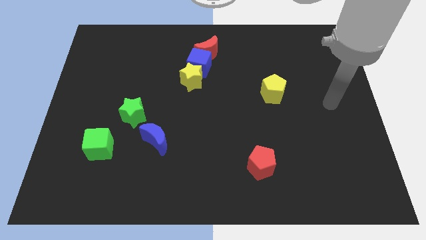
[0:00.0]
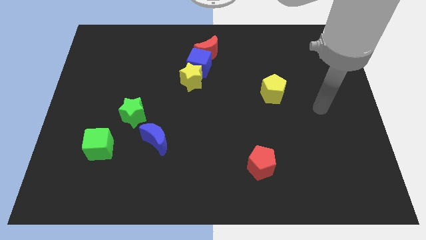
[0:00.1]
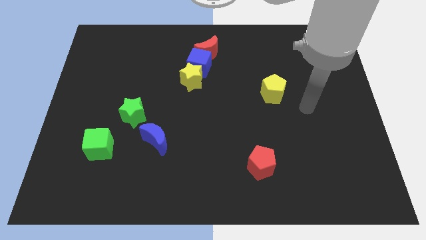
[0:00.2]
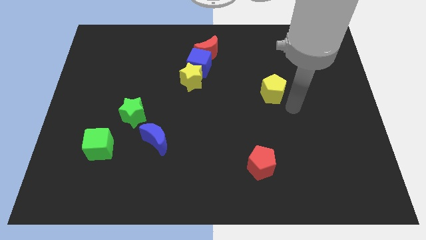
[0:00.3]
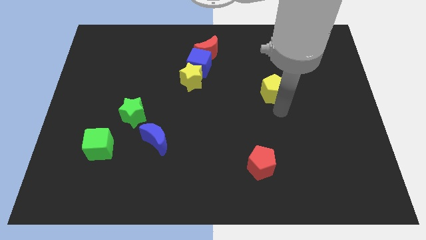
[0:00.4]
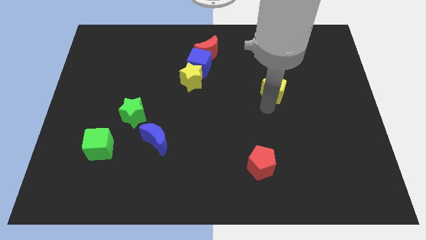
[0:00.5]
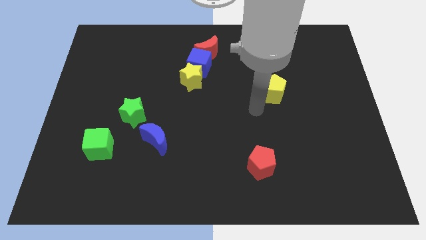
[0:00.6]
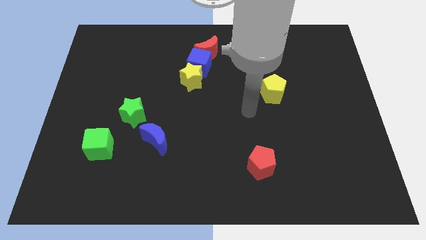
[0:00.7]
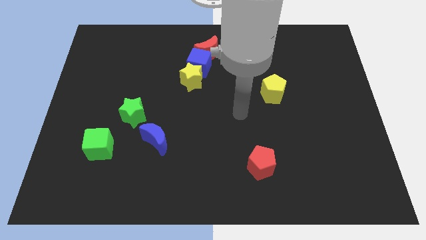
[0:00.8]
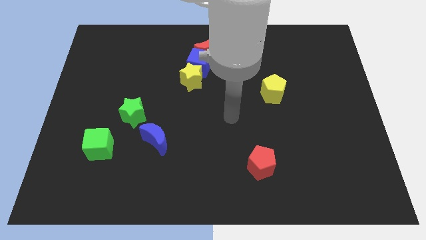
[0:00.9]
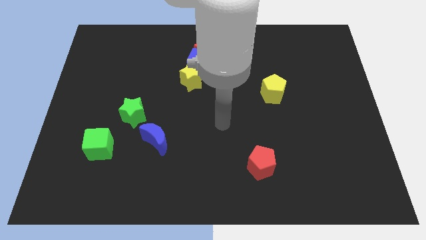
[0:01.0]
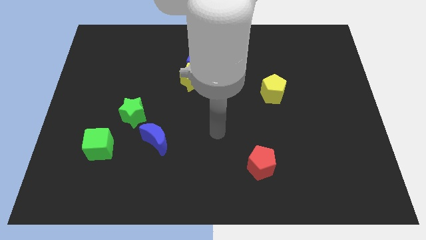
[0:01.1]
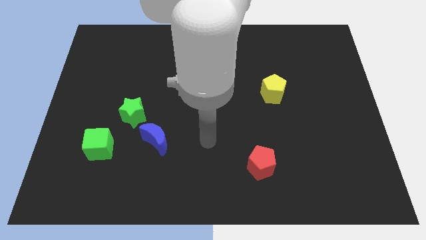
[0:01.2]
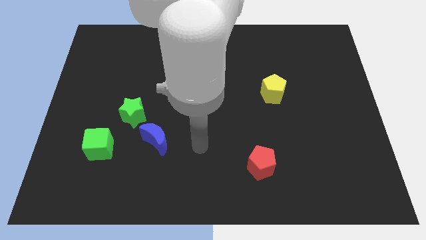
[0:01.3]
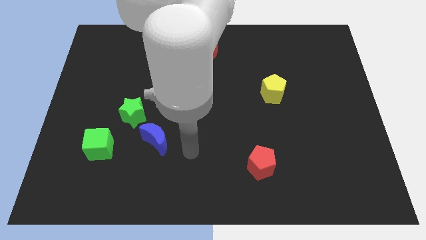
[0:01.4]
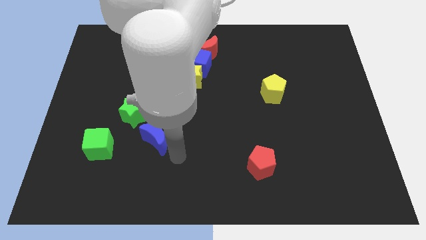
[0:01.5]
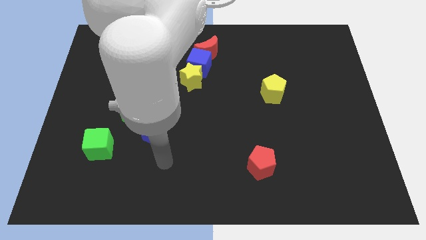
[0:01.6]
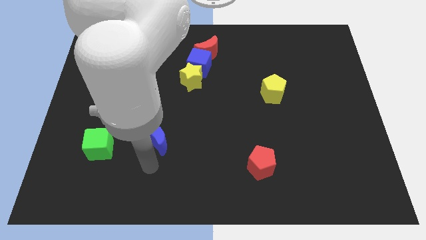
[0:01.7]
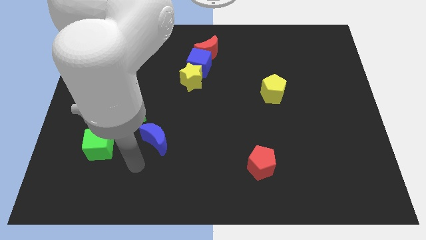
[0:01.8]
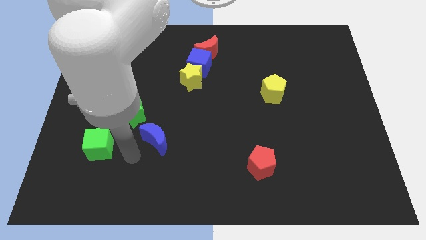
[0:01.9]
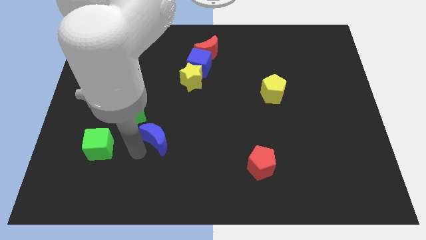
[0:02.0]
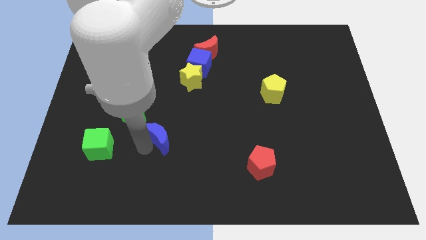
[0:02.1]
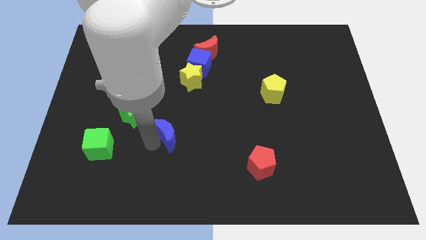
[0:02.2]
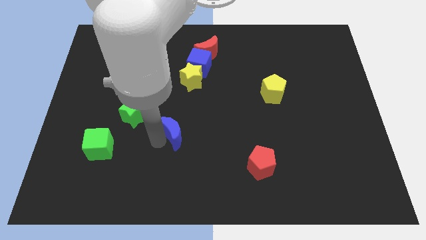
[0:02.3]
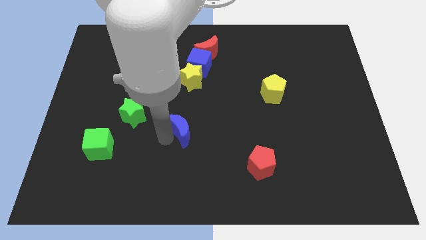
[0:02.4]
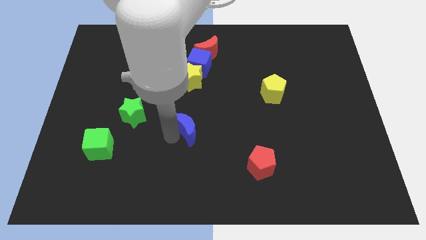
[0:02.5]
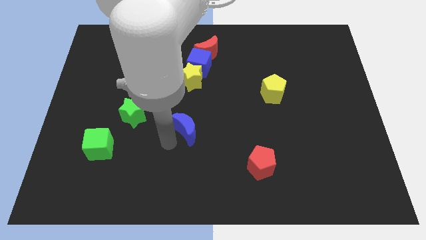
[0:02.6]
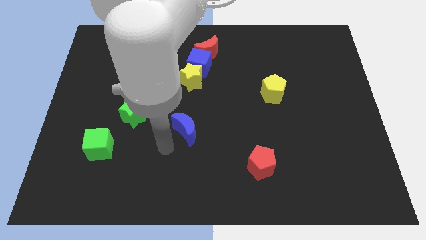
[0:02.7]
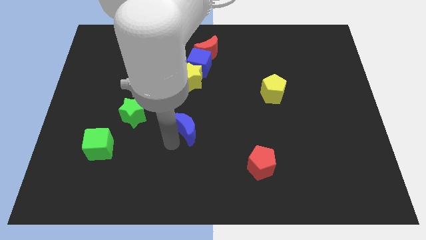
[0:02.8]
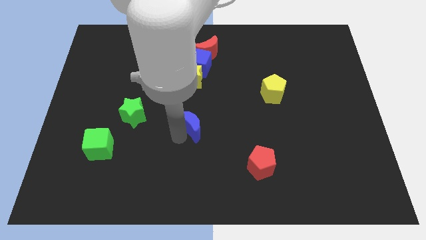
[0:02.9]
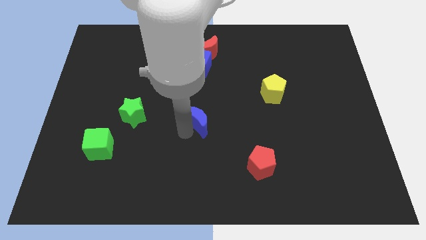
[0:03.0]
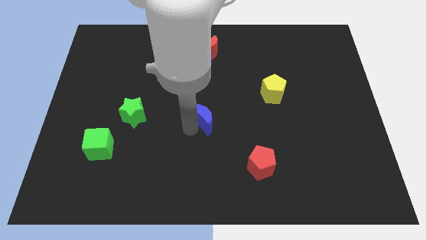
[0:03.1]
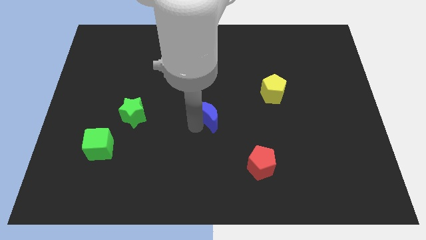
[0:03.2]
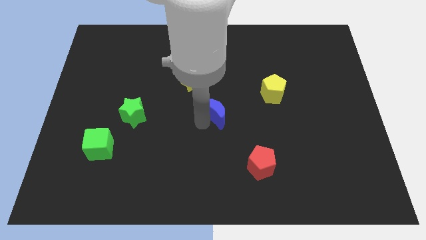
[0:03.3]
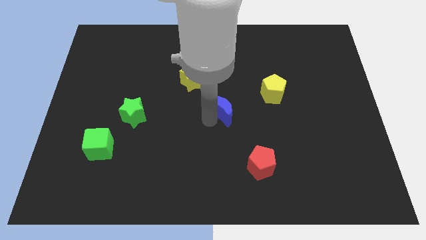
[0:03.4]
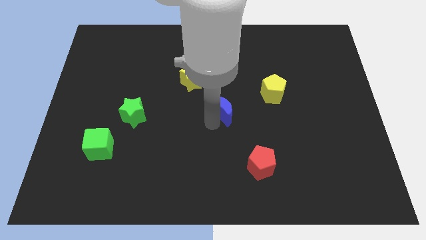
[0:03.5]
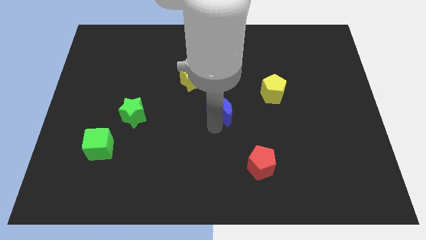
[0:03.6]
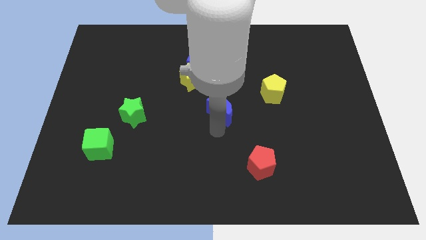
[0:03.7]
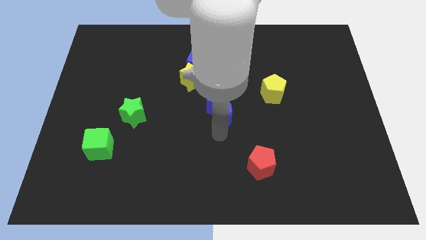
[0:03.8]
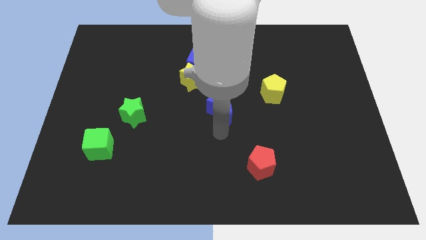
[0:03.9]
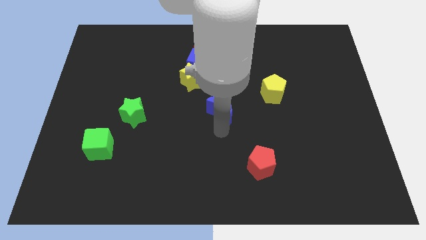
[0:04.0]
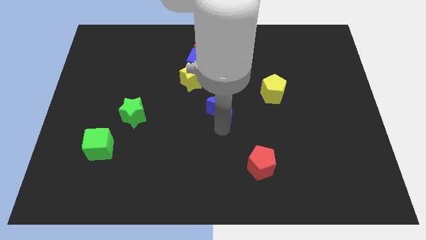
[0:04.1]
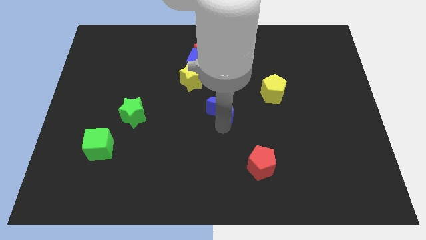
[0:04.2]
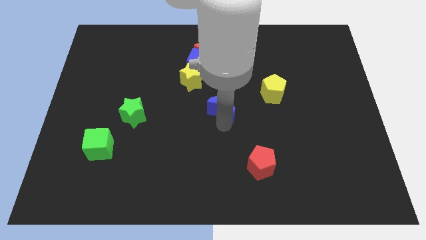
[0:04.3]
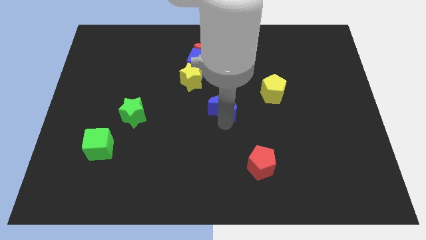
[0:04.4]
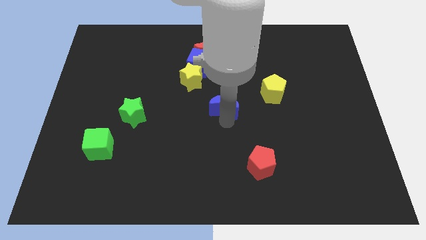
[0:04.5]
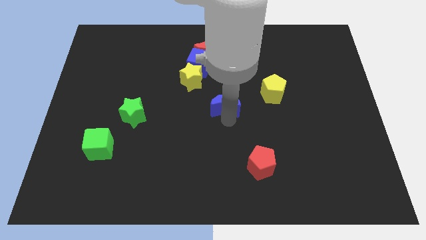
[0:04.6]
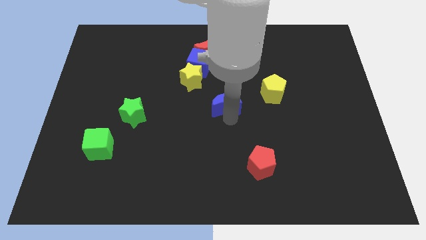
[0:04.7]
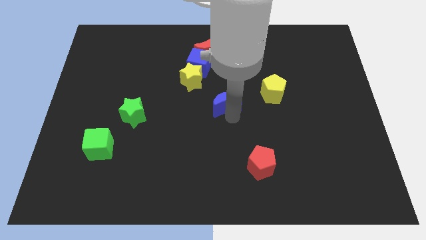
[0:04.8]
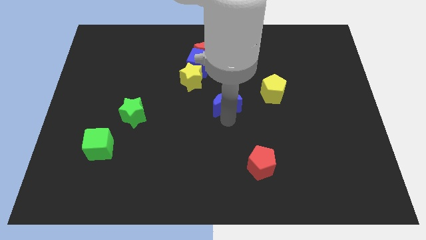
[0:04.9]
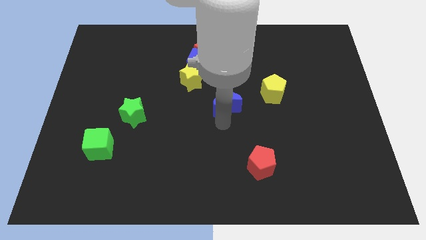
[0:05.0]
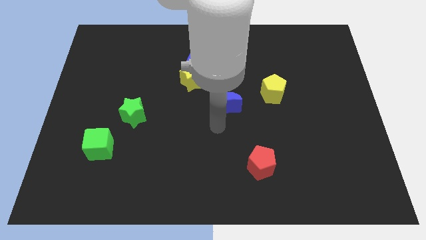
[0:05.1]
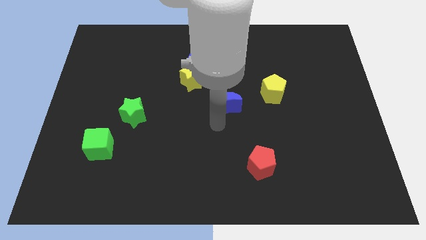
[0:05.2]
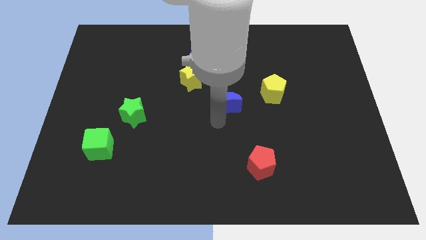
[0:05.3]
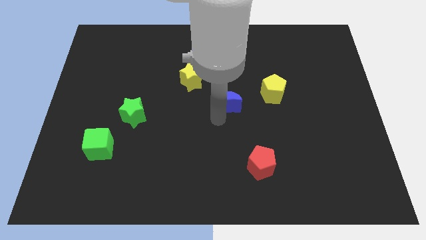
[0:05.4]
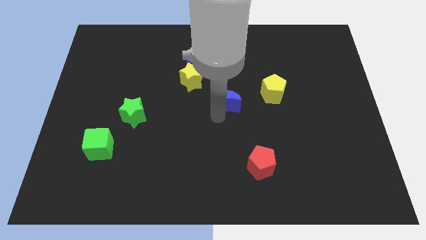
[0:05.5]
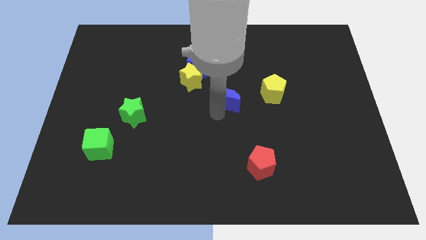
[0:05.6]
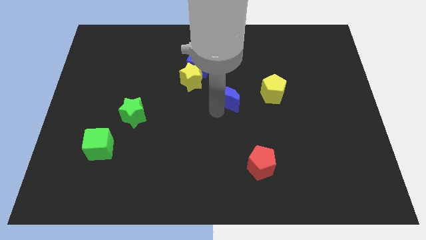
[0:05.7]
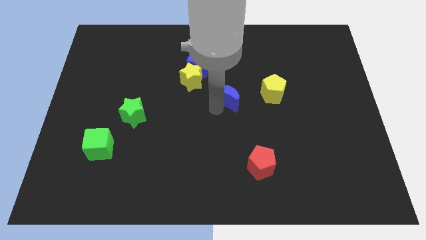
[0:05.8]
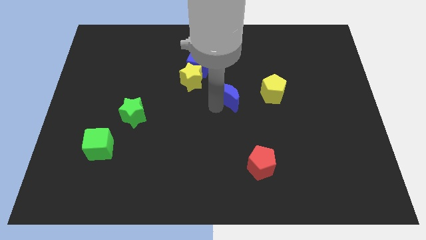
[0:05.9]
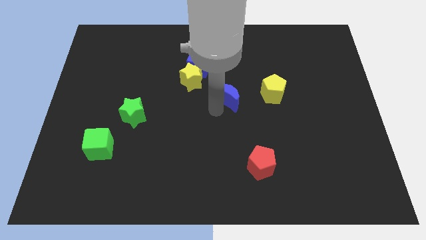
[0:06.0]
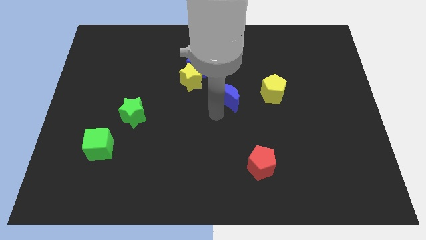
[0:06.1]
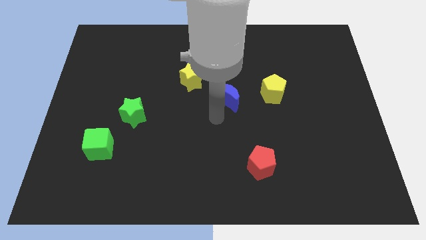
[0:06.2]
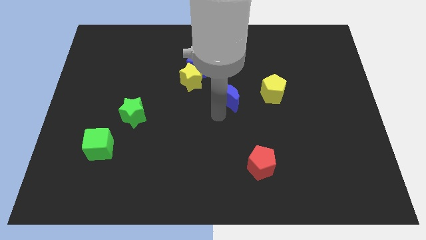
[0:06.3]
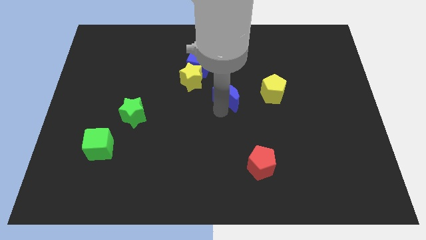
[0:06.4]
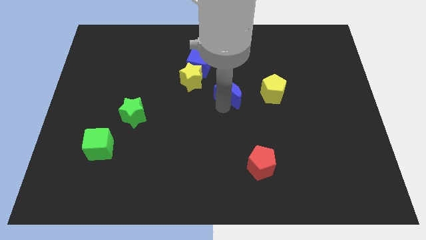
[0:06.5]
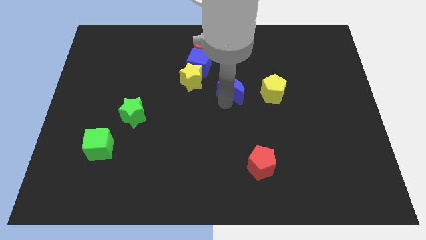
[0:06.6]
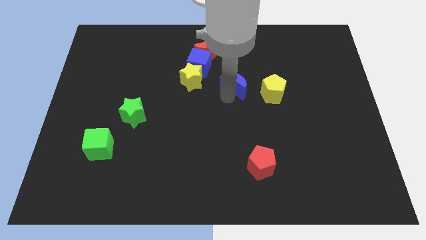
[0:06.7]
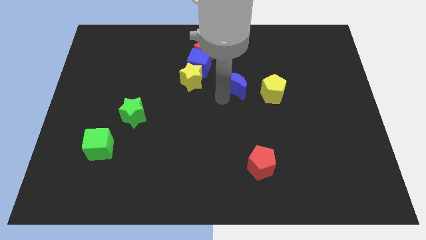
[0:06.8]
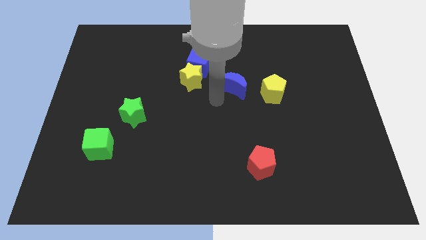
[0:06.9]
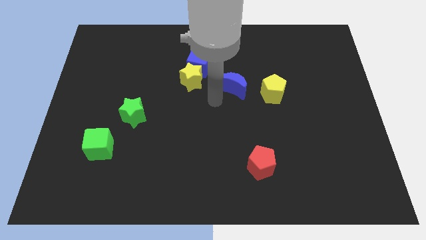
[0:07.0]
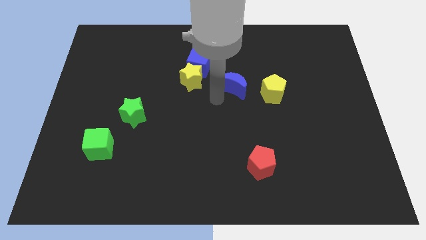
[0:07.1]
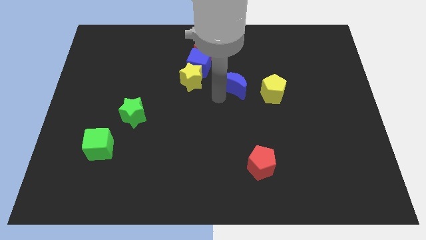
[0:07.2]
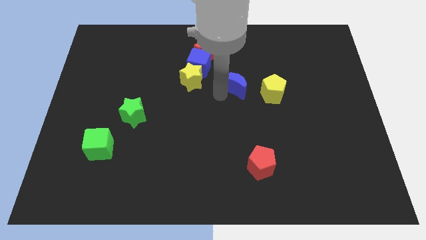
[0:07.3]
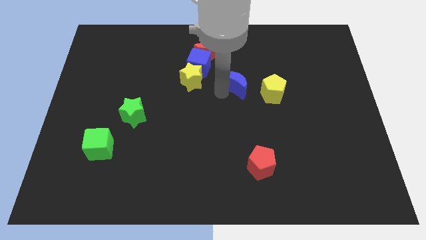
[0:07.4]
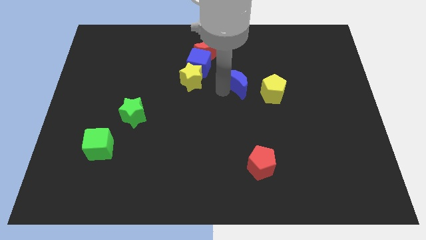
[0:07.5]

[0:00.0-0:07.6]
push the blue moon to the top left side of the yellow pentagon
